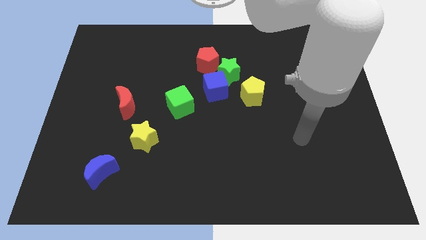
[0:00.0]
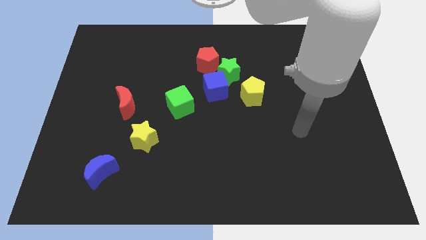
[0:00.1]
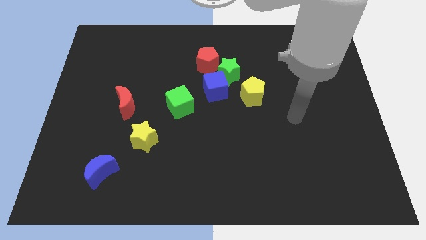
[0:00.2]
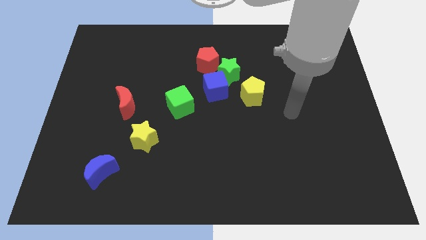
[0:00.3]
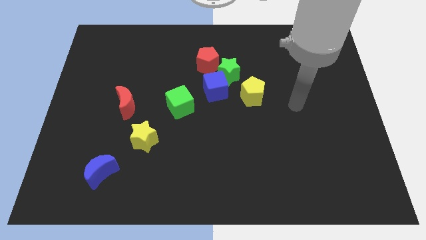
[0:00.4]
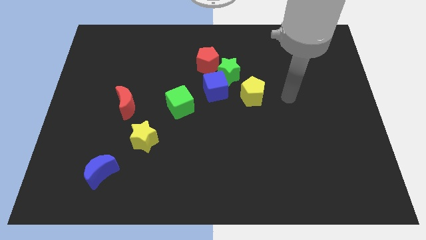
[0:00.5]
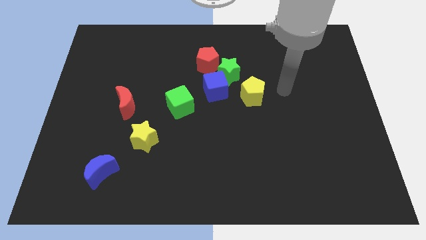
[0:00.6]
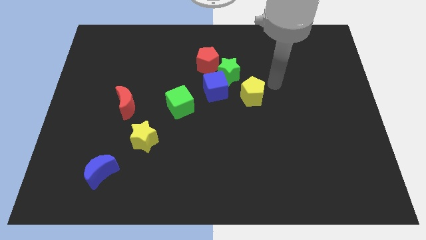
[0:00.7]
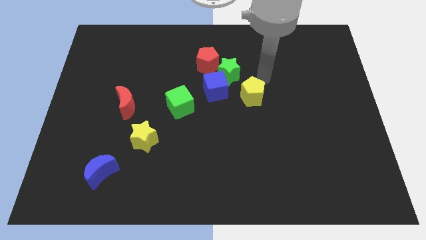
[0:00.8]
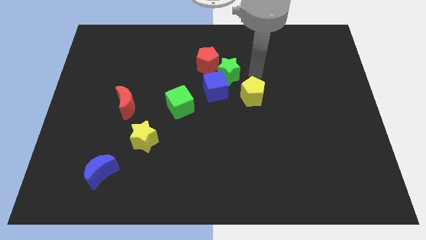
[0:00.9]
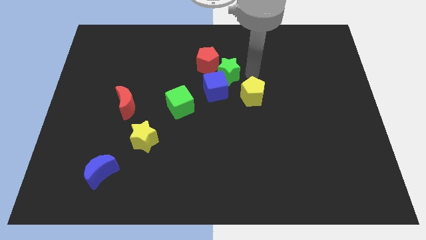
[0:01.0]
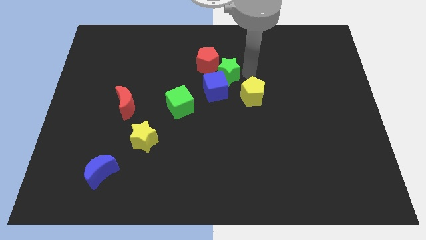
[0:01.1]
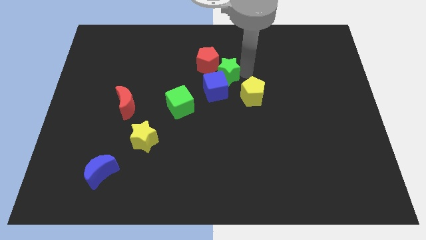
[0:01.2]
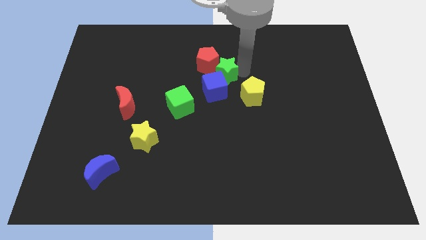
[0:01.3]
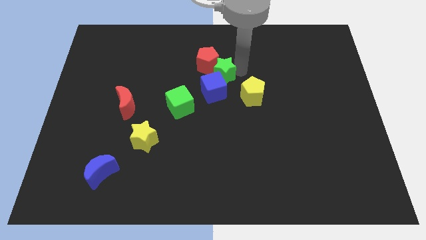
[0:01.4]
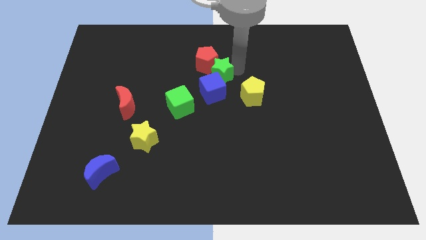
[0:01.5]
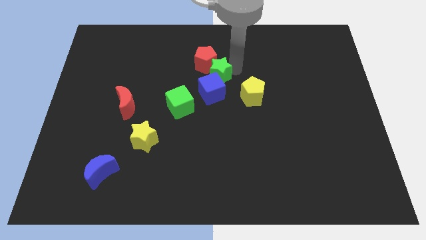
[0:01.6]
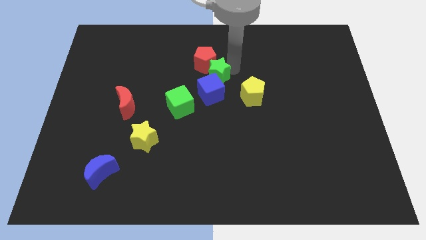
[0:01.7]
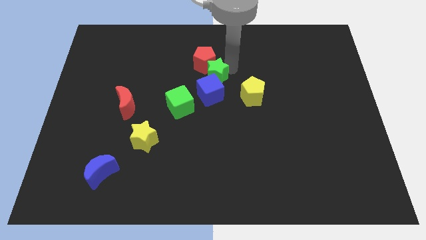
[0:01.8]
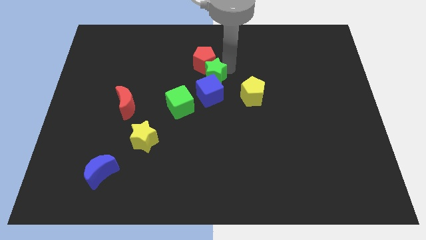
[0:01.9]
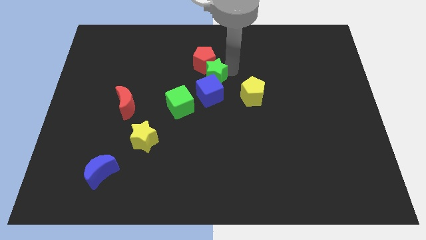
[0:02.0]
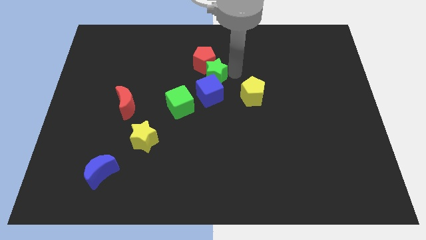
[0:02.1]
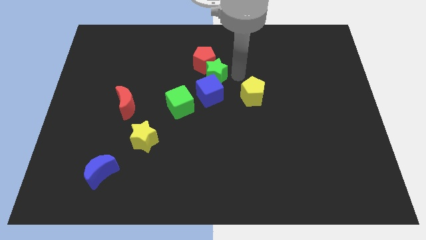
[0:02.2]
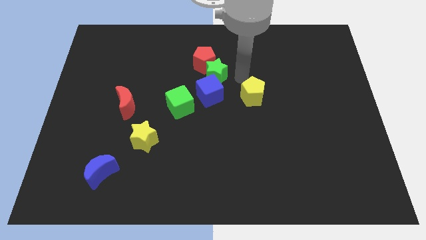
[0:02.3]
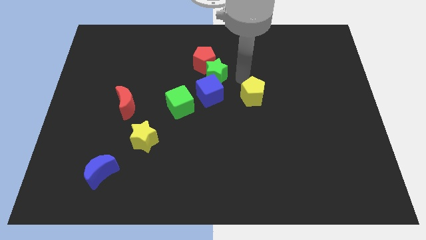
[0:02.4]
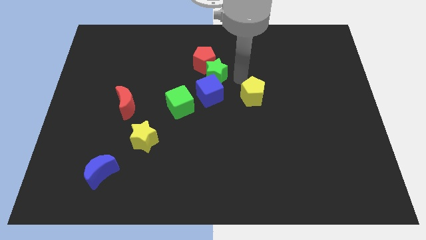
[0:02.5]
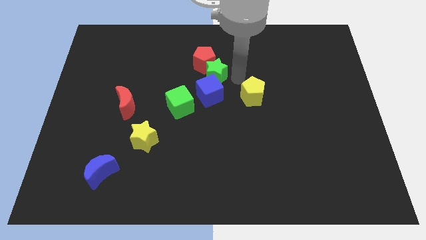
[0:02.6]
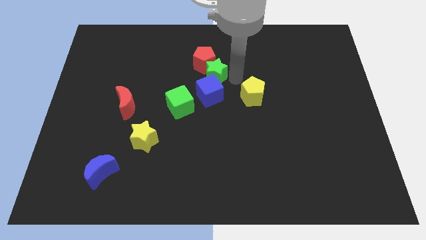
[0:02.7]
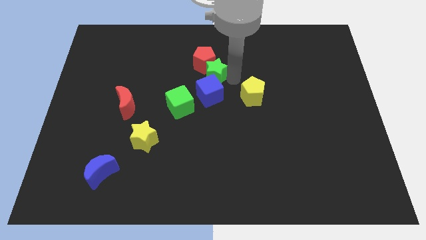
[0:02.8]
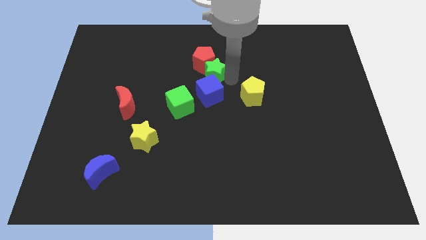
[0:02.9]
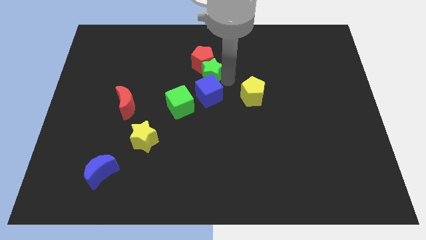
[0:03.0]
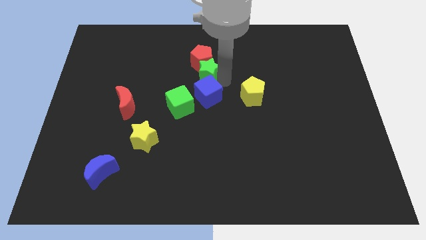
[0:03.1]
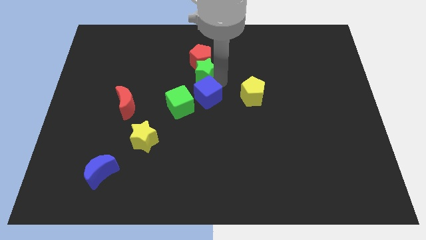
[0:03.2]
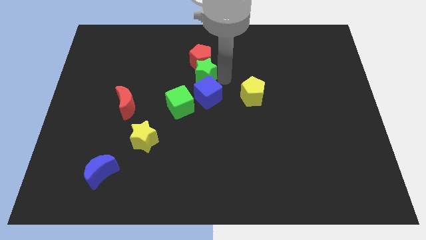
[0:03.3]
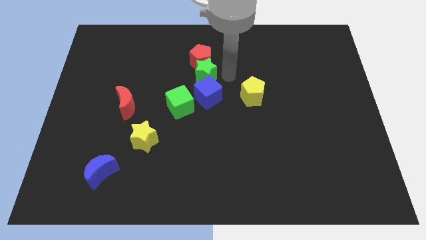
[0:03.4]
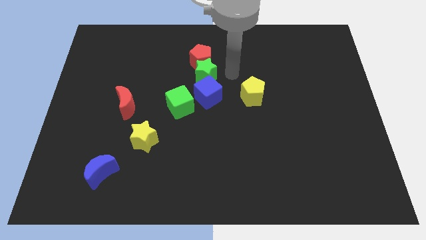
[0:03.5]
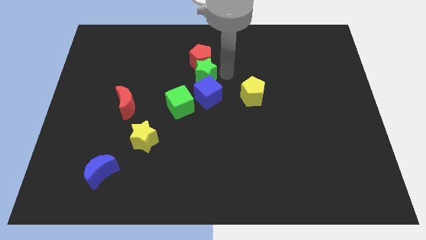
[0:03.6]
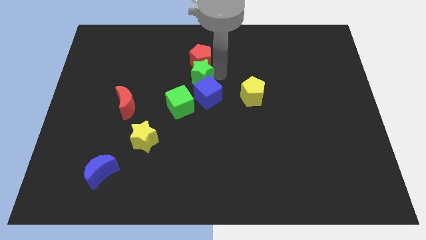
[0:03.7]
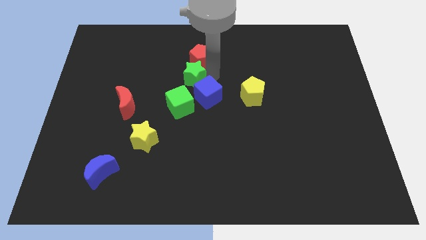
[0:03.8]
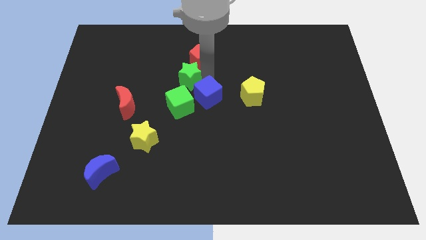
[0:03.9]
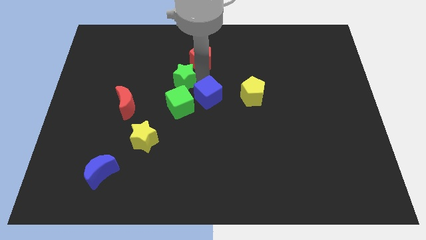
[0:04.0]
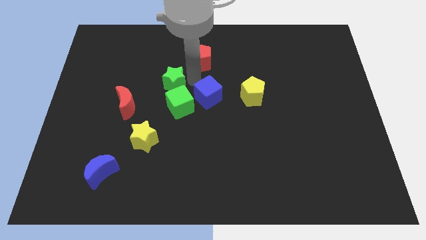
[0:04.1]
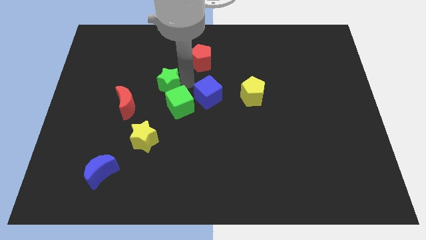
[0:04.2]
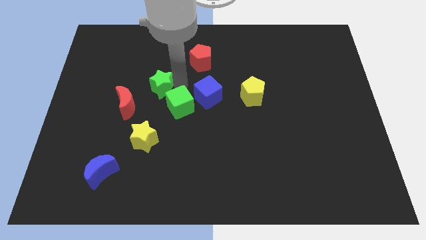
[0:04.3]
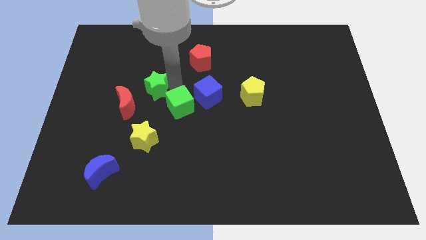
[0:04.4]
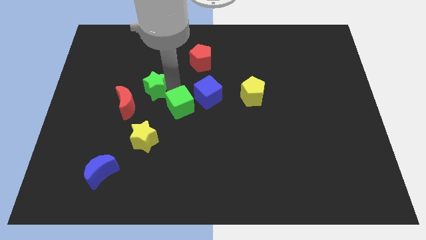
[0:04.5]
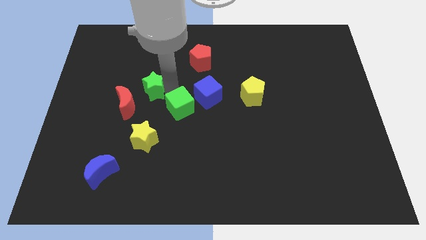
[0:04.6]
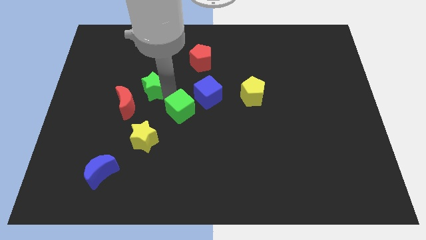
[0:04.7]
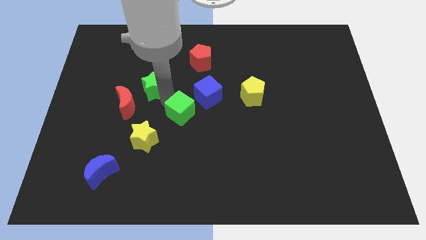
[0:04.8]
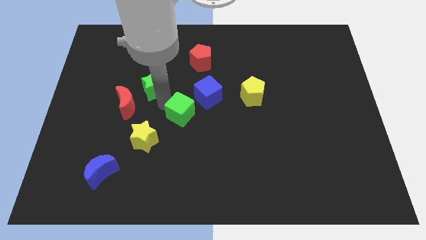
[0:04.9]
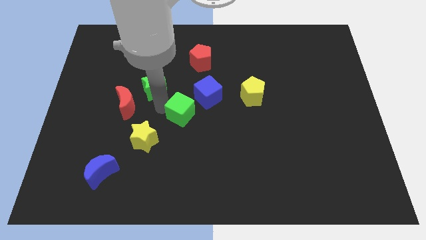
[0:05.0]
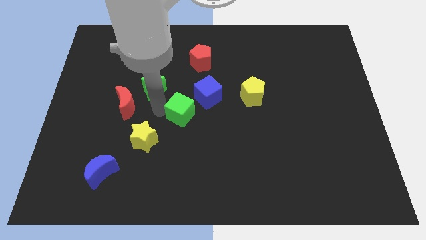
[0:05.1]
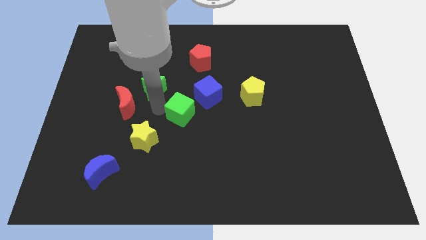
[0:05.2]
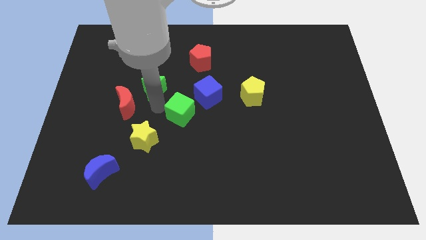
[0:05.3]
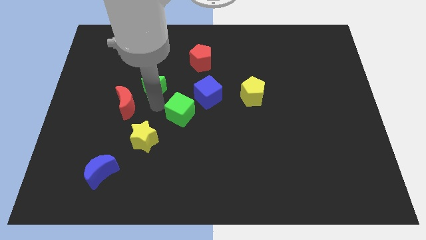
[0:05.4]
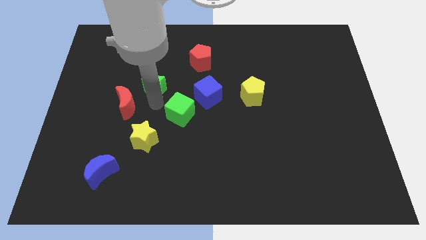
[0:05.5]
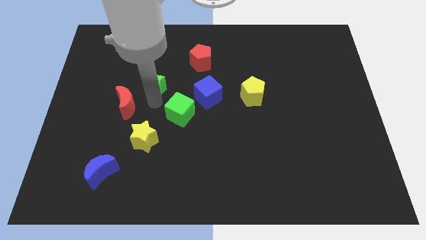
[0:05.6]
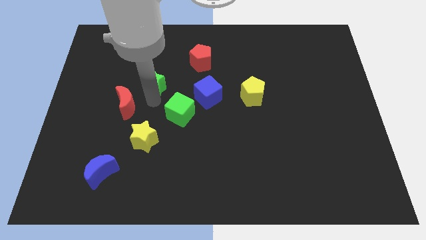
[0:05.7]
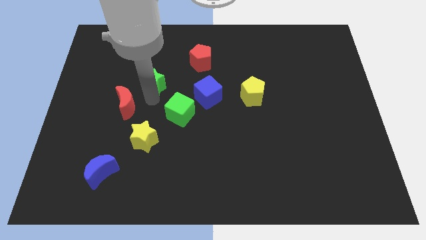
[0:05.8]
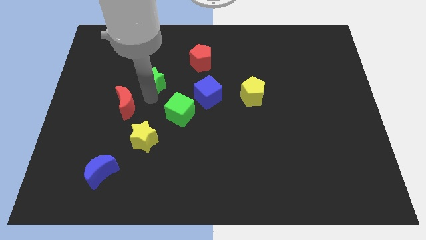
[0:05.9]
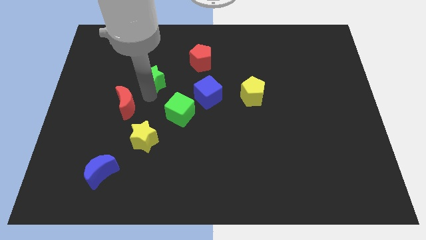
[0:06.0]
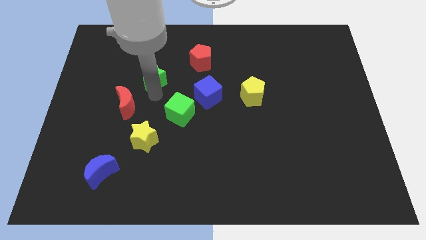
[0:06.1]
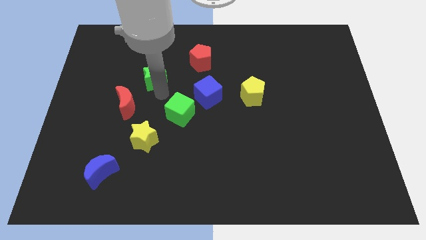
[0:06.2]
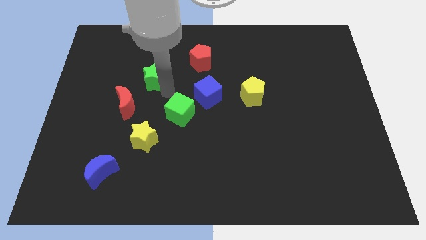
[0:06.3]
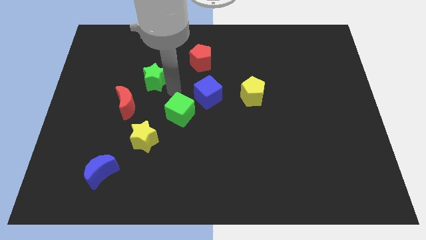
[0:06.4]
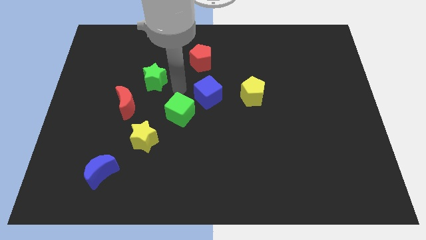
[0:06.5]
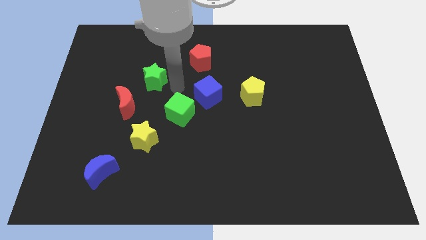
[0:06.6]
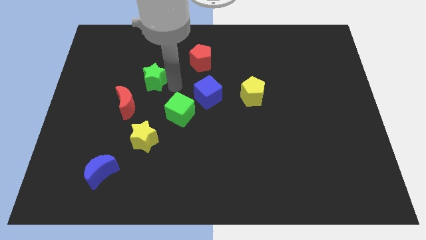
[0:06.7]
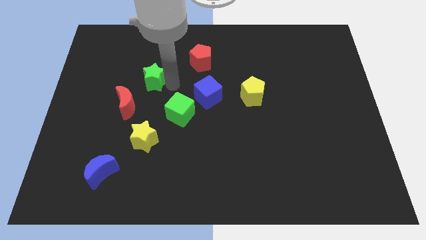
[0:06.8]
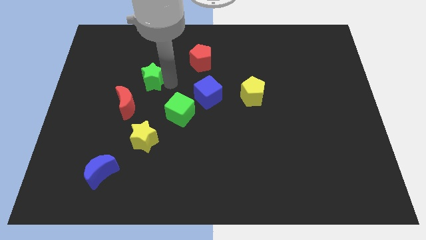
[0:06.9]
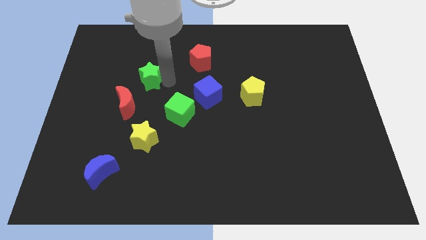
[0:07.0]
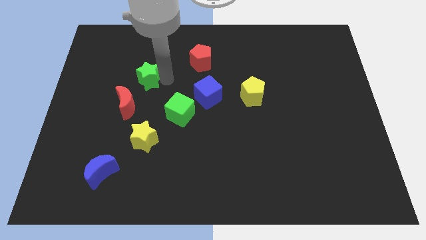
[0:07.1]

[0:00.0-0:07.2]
push the green star left

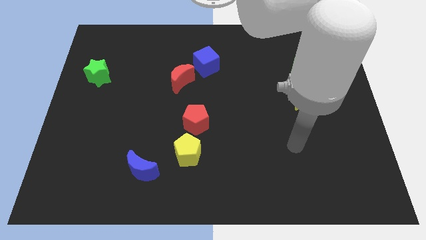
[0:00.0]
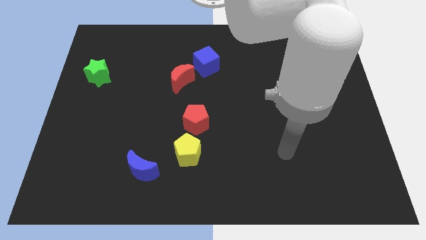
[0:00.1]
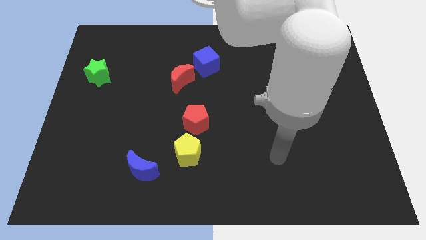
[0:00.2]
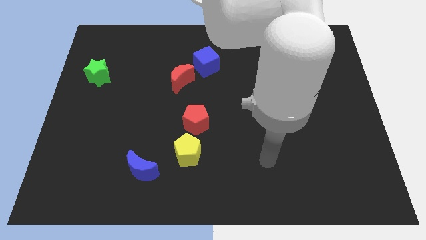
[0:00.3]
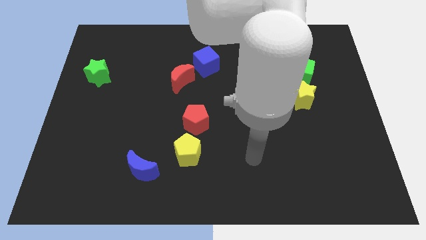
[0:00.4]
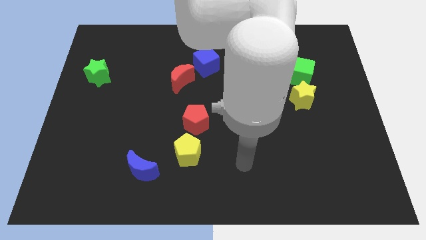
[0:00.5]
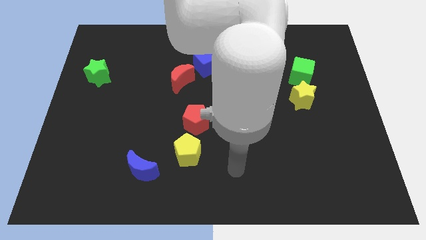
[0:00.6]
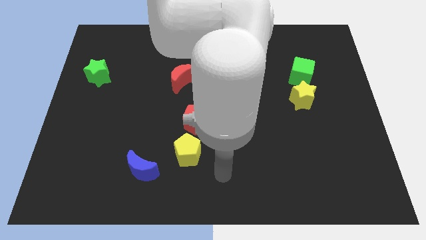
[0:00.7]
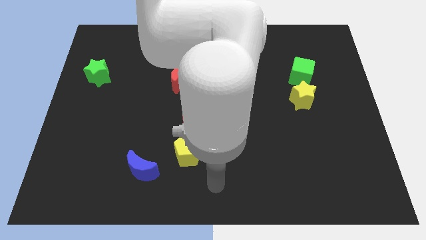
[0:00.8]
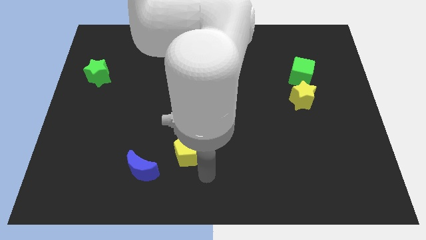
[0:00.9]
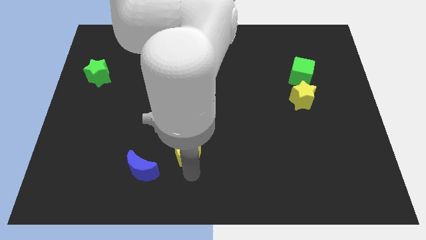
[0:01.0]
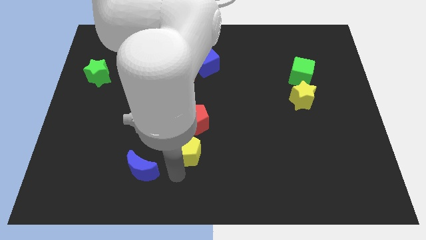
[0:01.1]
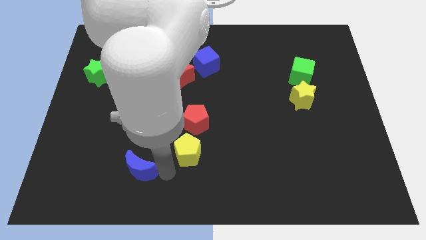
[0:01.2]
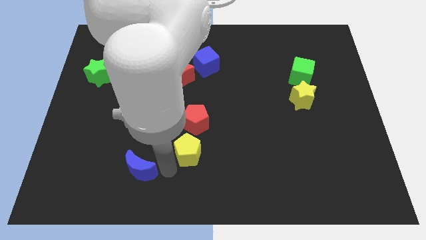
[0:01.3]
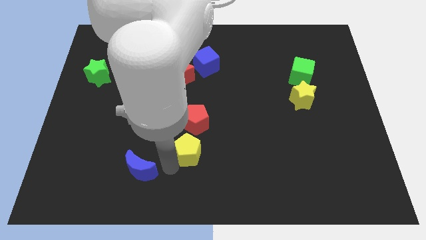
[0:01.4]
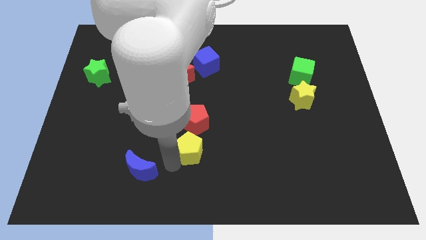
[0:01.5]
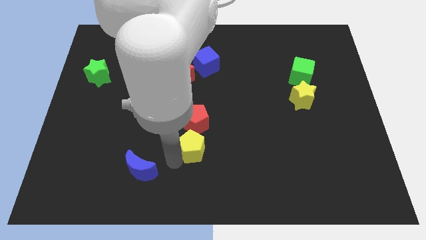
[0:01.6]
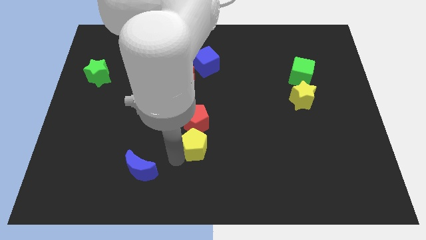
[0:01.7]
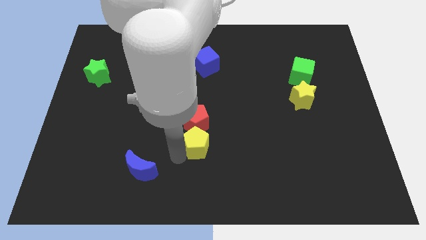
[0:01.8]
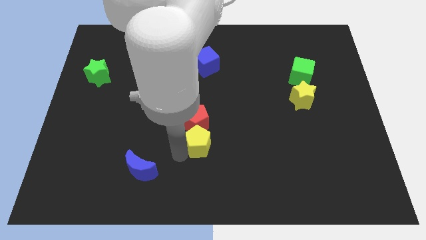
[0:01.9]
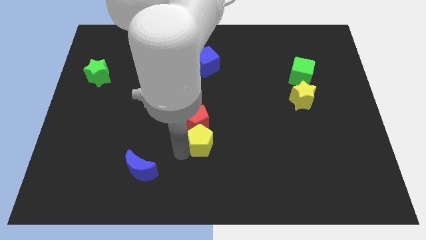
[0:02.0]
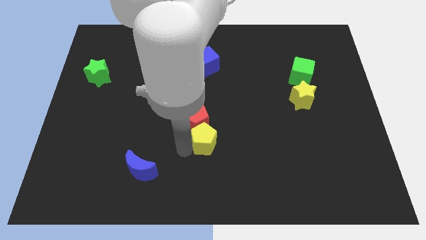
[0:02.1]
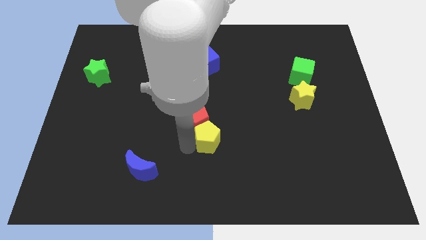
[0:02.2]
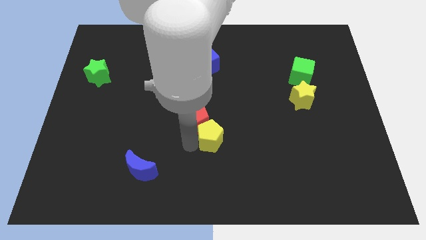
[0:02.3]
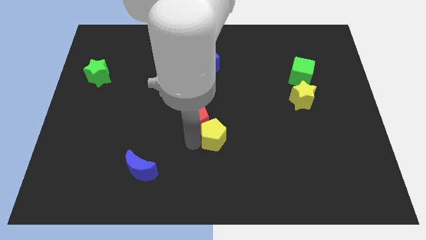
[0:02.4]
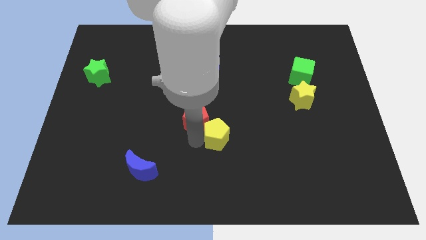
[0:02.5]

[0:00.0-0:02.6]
slightly push the yellow pentagon upwards and then right
